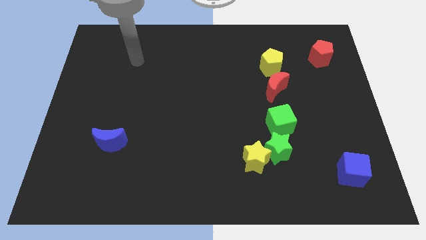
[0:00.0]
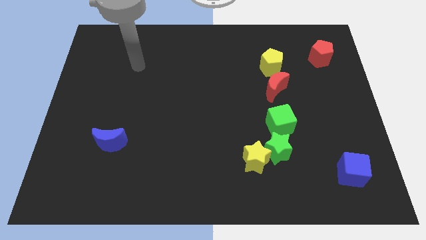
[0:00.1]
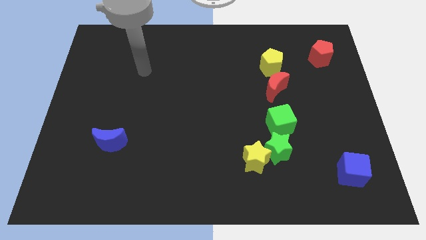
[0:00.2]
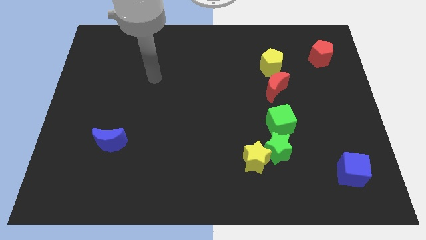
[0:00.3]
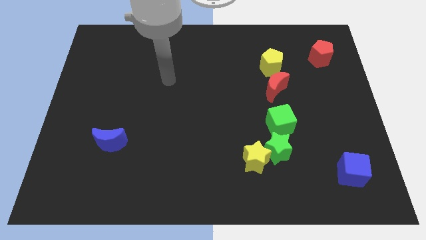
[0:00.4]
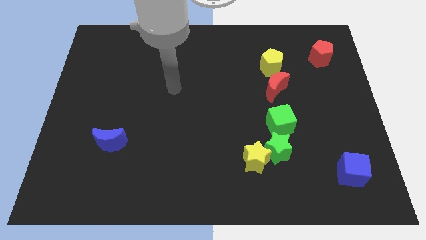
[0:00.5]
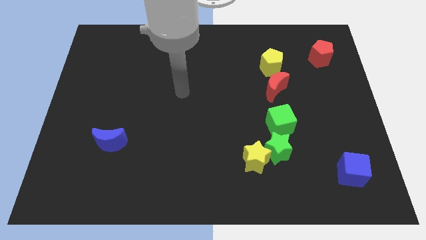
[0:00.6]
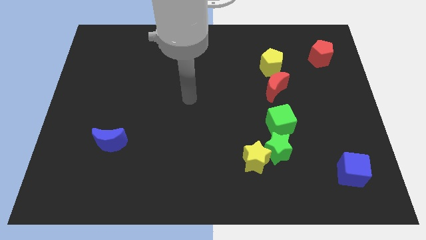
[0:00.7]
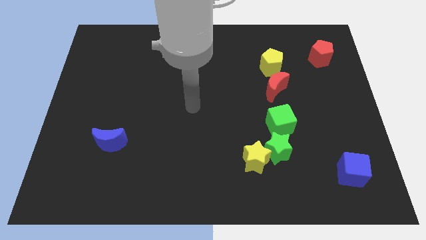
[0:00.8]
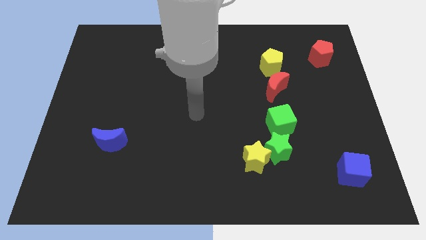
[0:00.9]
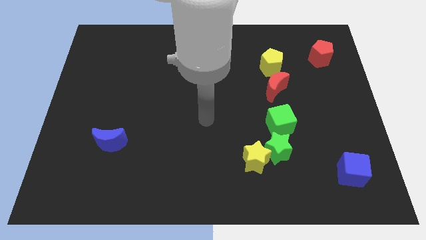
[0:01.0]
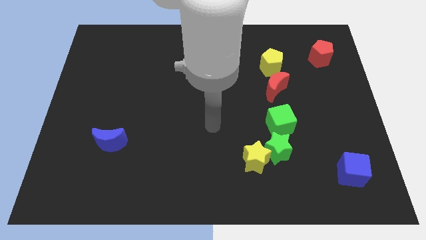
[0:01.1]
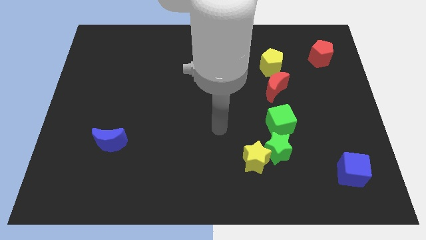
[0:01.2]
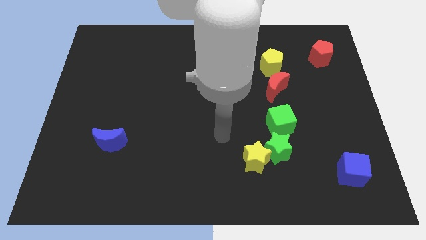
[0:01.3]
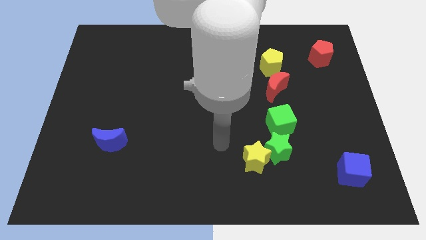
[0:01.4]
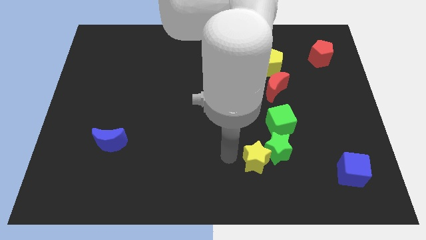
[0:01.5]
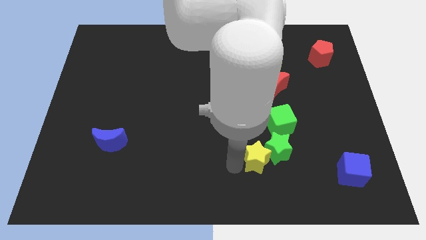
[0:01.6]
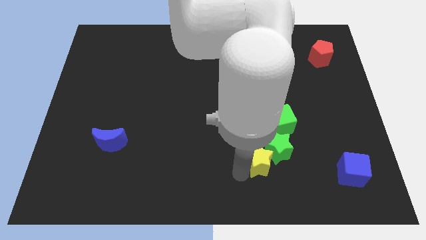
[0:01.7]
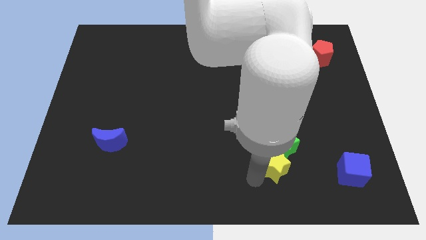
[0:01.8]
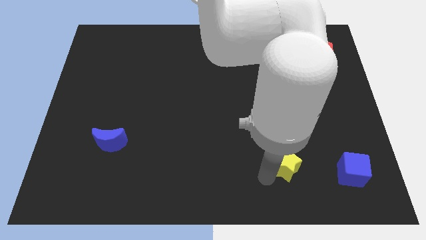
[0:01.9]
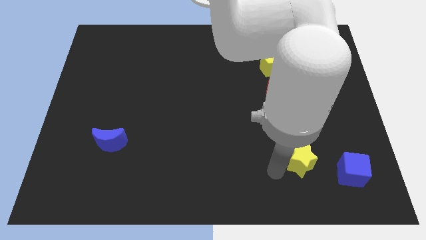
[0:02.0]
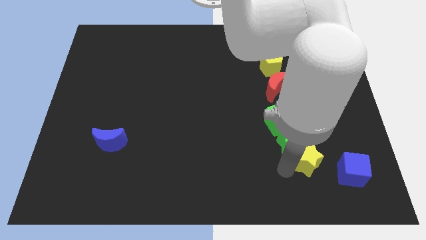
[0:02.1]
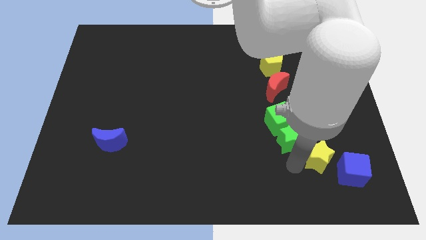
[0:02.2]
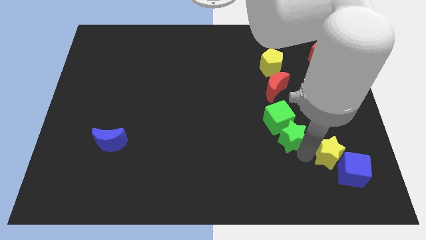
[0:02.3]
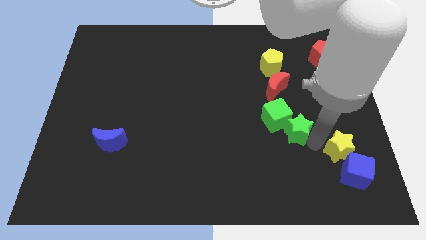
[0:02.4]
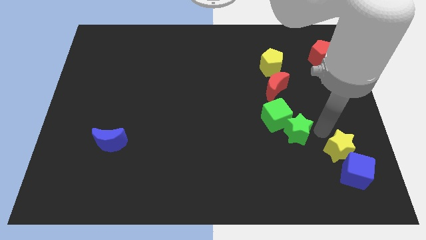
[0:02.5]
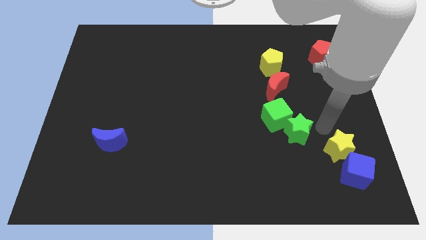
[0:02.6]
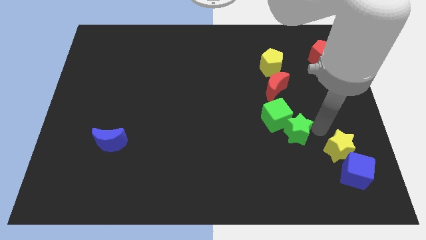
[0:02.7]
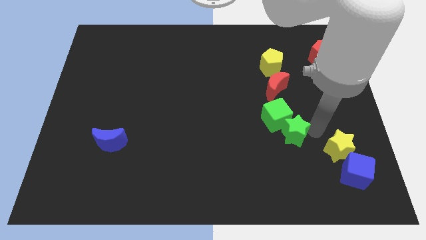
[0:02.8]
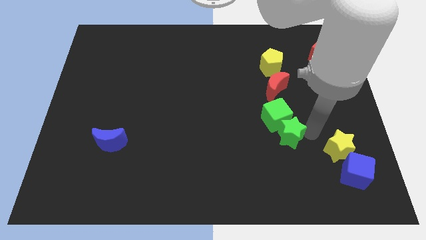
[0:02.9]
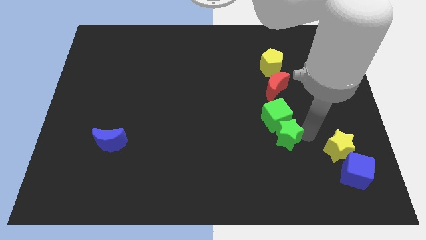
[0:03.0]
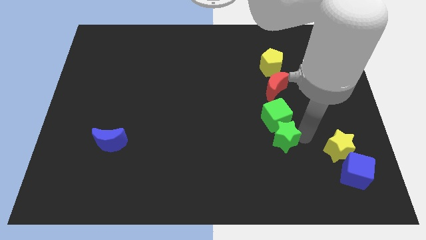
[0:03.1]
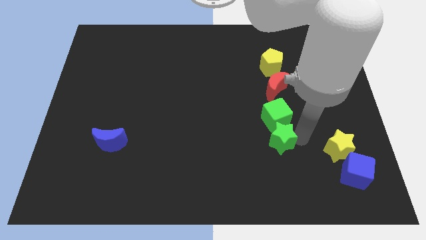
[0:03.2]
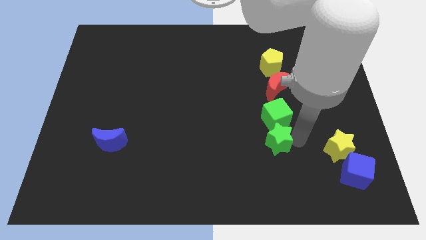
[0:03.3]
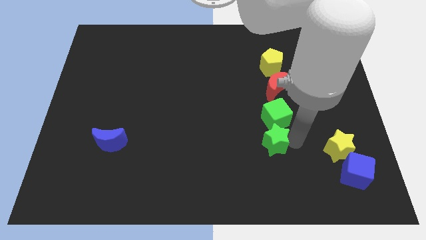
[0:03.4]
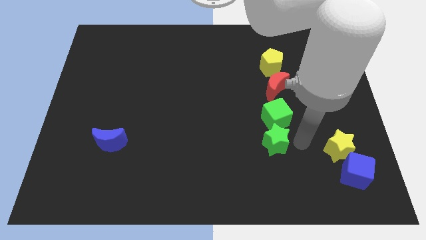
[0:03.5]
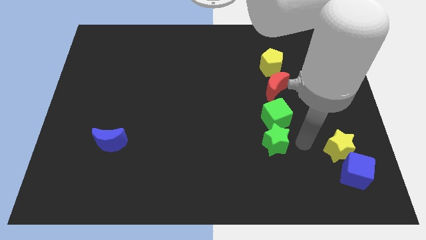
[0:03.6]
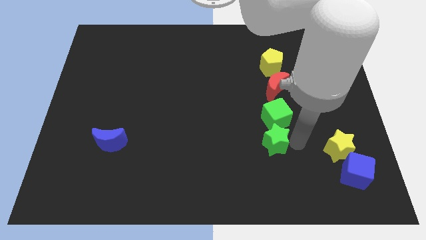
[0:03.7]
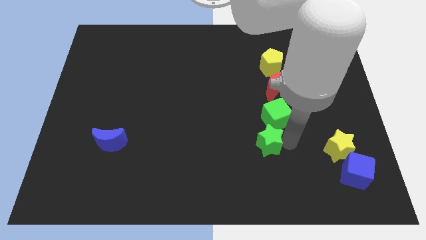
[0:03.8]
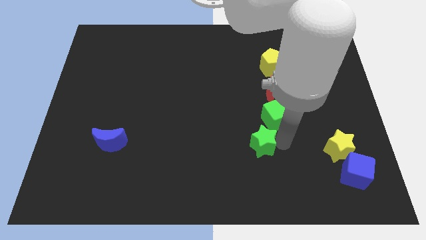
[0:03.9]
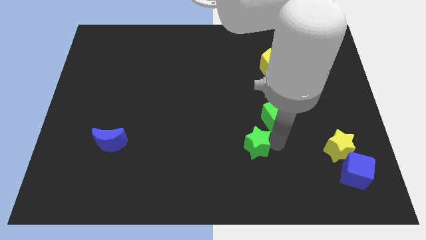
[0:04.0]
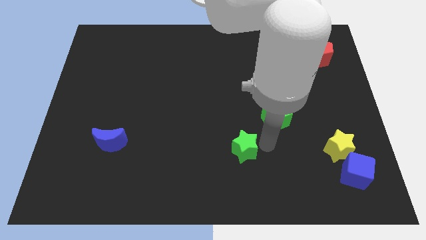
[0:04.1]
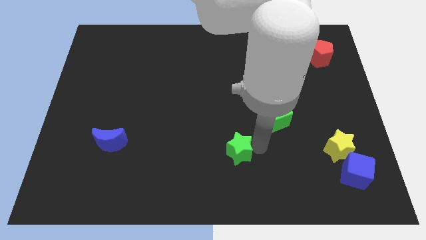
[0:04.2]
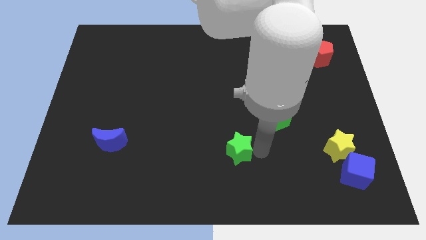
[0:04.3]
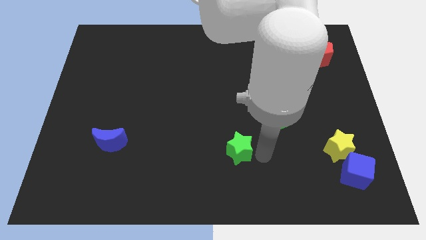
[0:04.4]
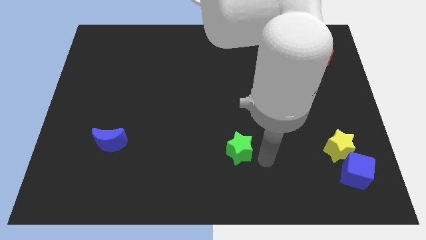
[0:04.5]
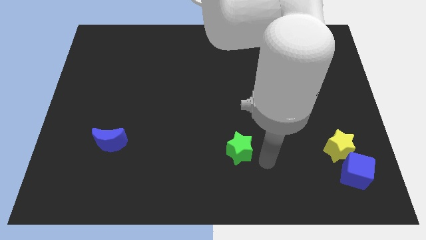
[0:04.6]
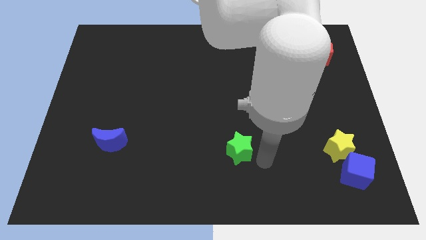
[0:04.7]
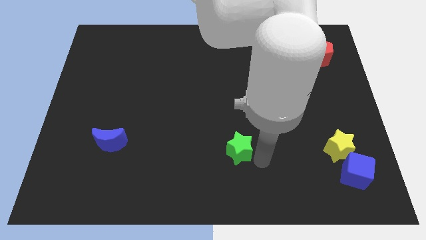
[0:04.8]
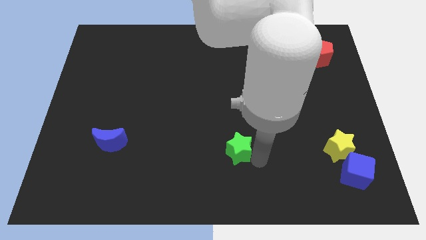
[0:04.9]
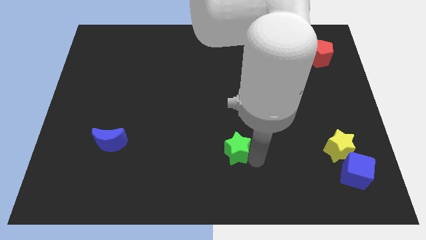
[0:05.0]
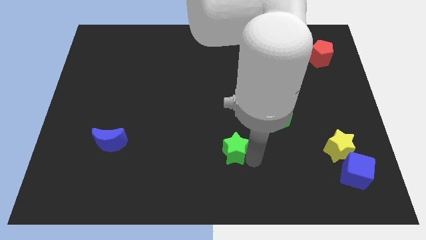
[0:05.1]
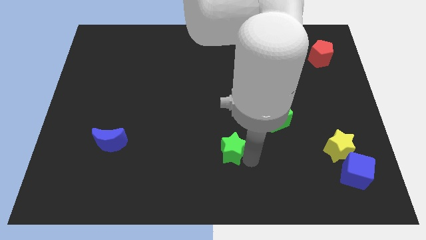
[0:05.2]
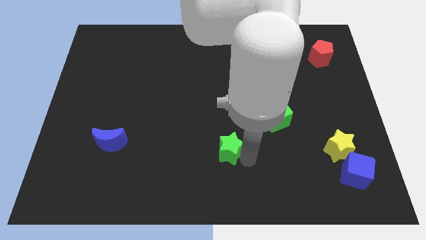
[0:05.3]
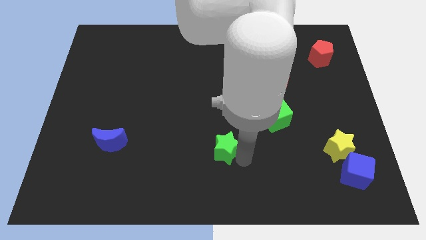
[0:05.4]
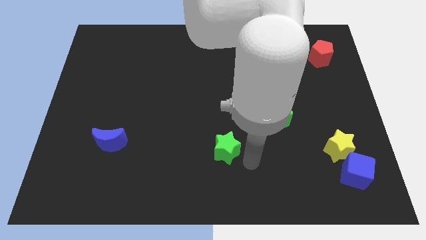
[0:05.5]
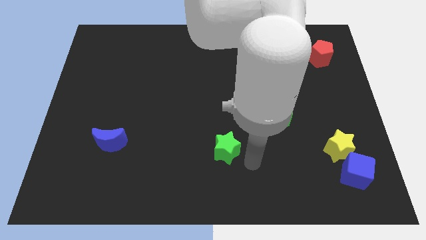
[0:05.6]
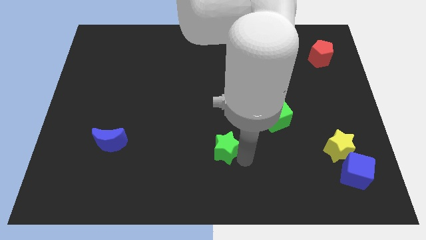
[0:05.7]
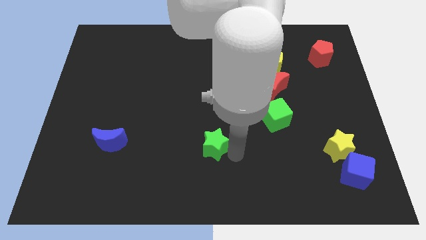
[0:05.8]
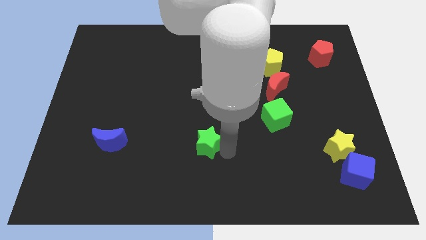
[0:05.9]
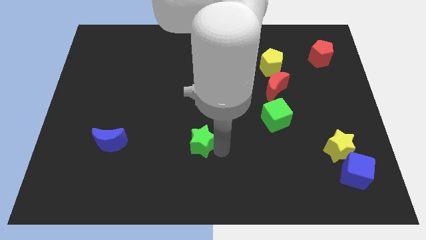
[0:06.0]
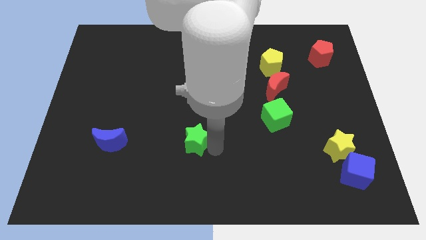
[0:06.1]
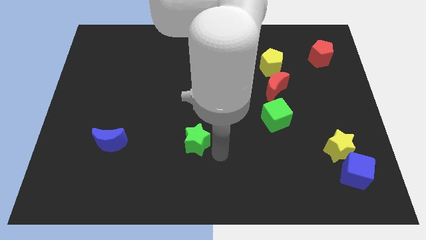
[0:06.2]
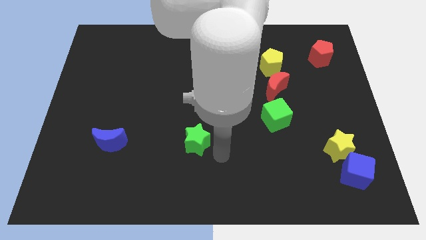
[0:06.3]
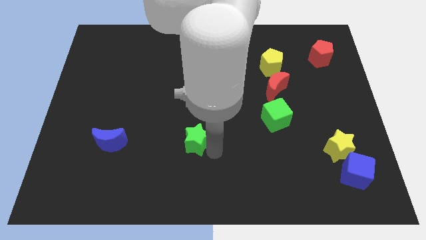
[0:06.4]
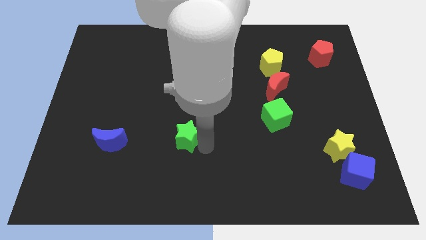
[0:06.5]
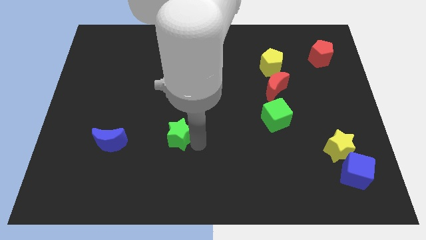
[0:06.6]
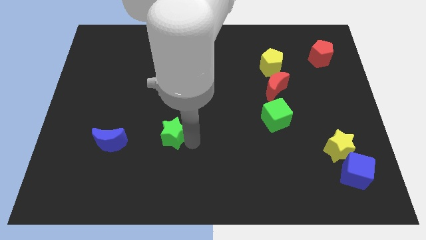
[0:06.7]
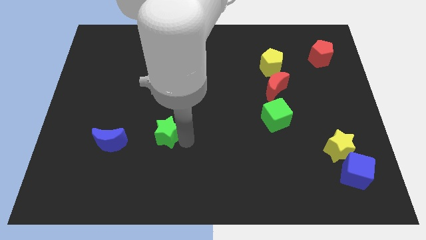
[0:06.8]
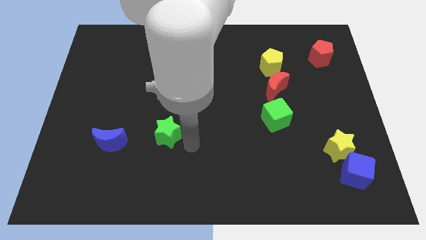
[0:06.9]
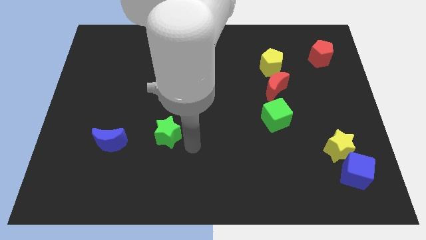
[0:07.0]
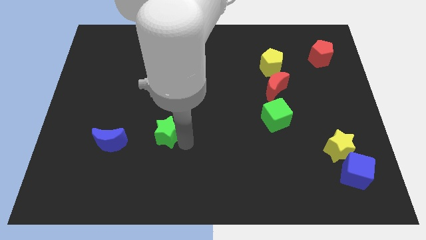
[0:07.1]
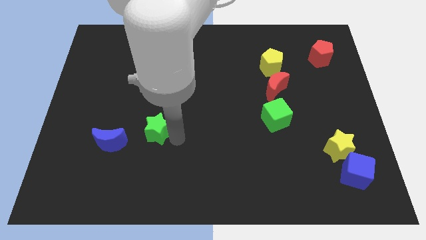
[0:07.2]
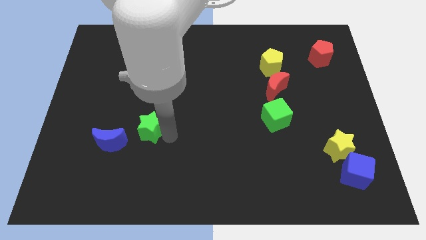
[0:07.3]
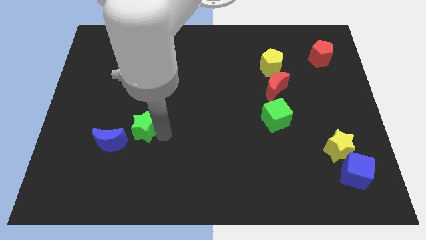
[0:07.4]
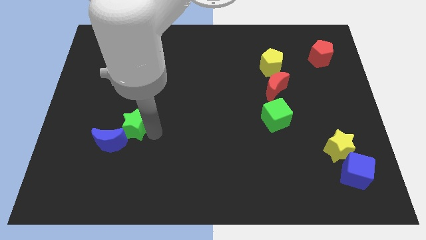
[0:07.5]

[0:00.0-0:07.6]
push the green star to the top side of the blue moon
